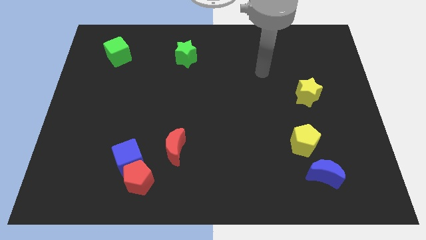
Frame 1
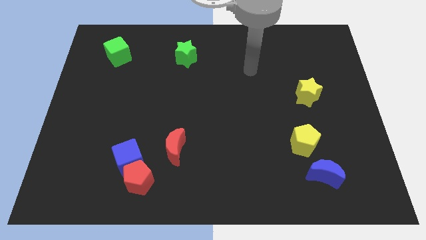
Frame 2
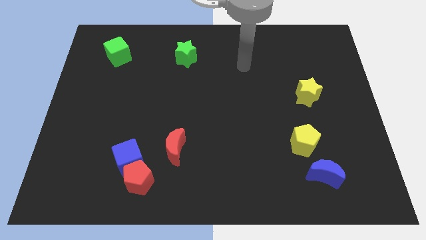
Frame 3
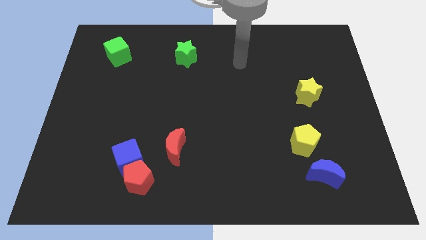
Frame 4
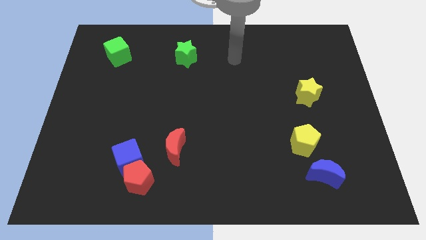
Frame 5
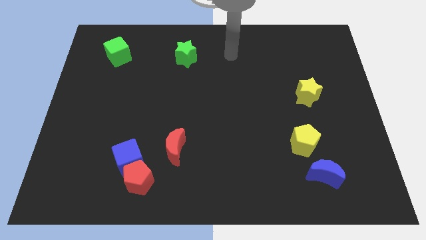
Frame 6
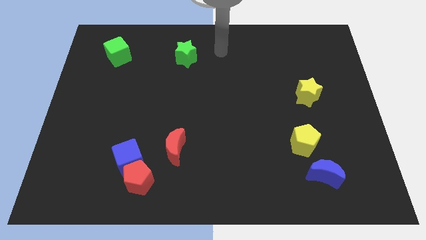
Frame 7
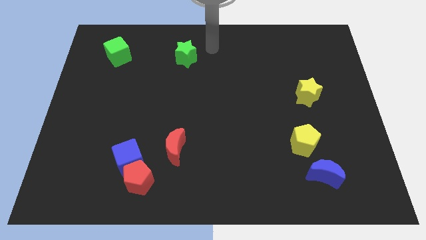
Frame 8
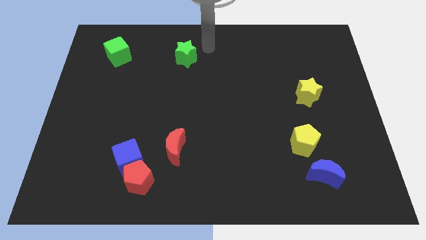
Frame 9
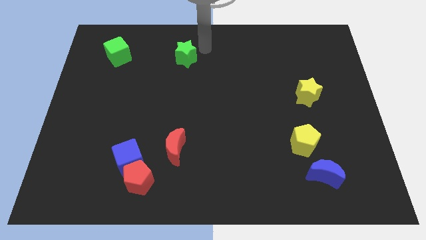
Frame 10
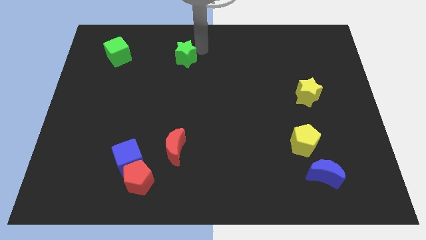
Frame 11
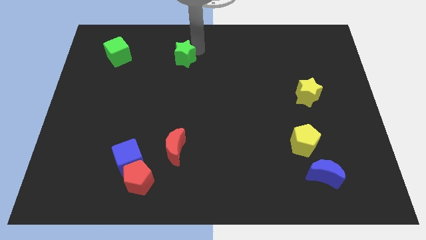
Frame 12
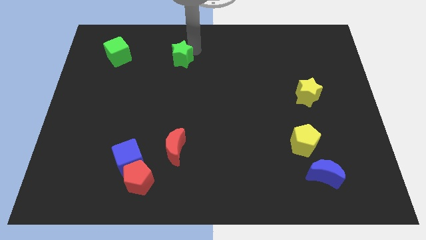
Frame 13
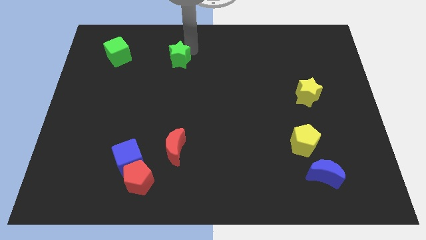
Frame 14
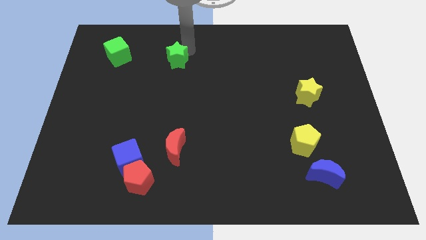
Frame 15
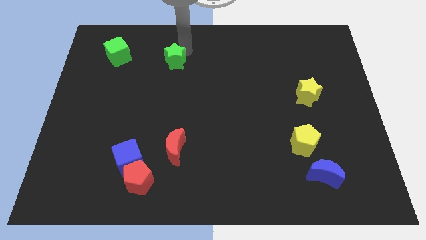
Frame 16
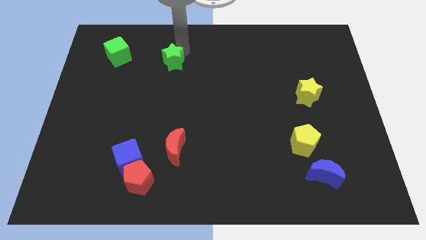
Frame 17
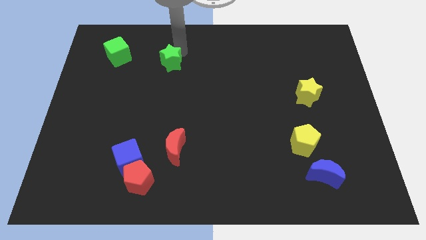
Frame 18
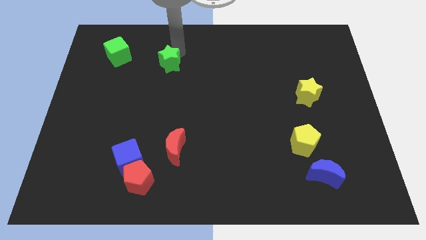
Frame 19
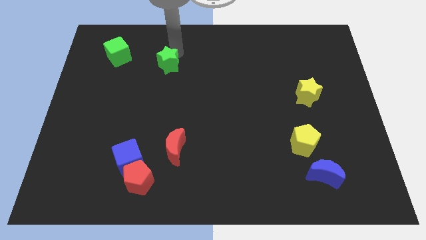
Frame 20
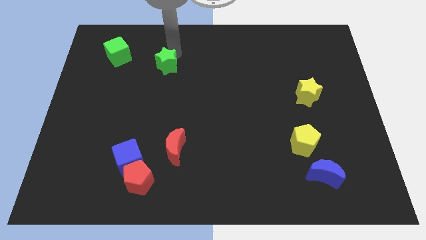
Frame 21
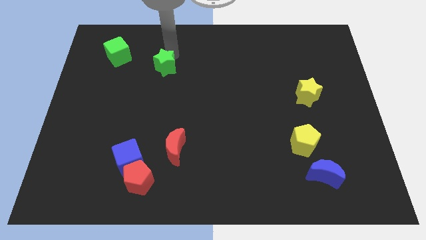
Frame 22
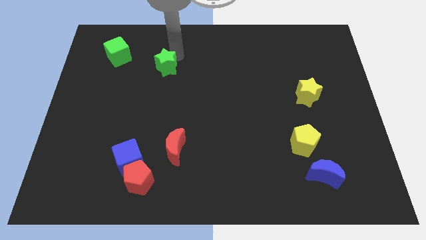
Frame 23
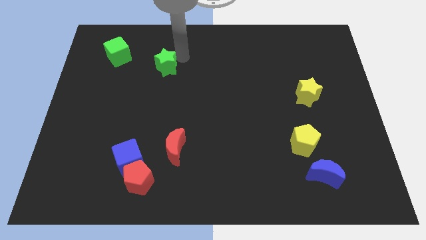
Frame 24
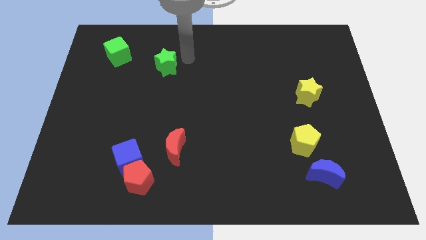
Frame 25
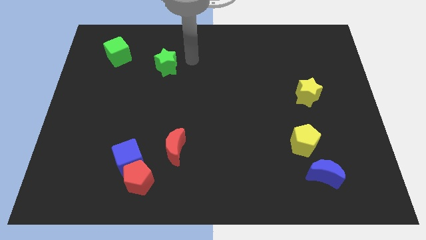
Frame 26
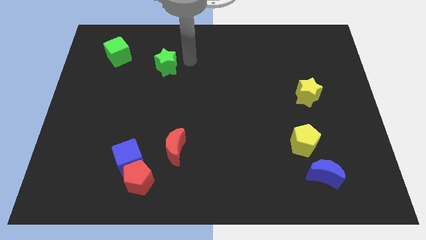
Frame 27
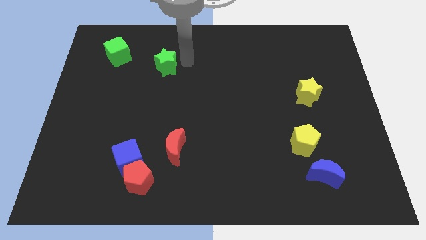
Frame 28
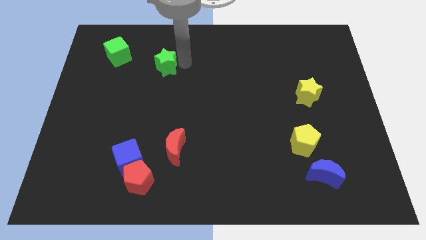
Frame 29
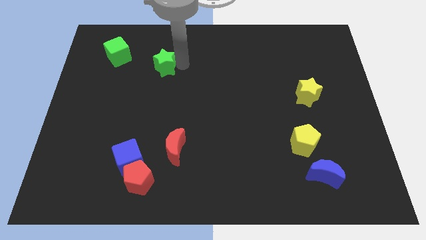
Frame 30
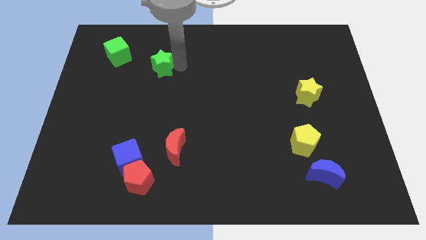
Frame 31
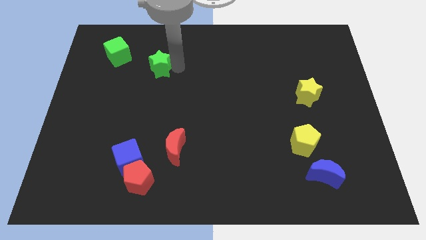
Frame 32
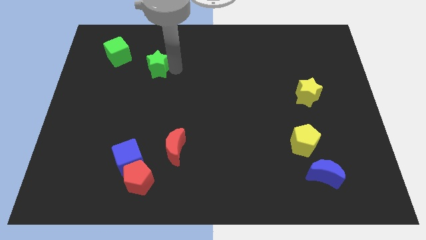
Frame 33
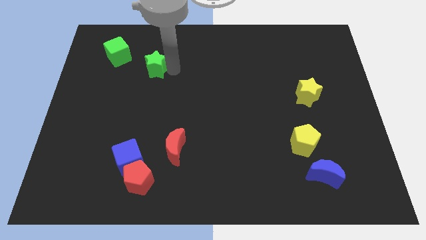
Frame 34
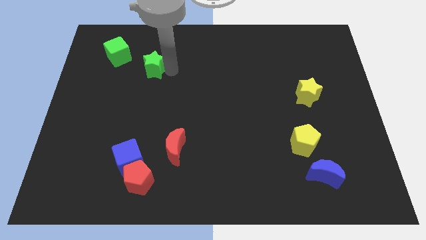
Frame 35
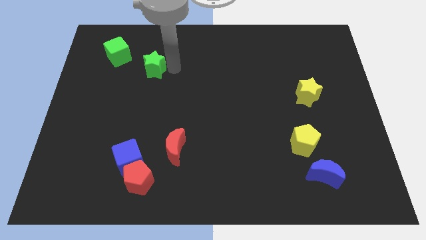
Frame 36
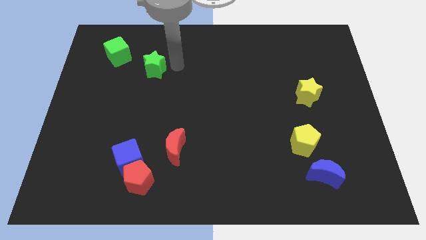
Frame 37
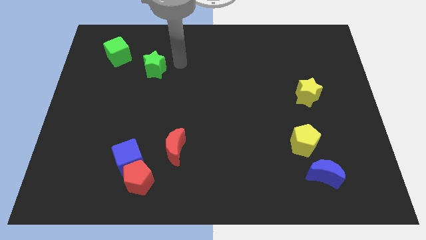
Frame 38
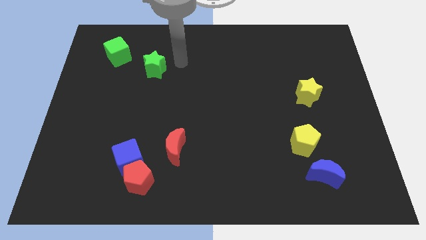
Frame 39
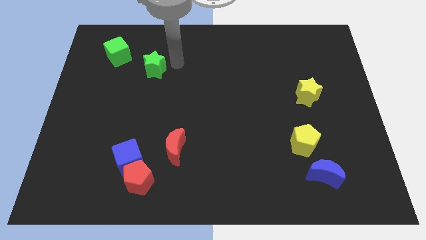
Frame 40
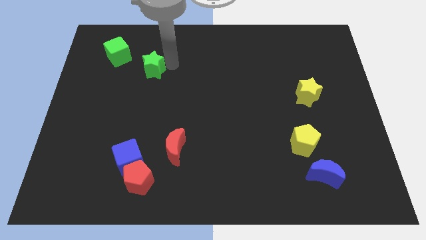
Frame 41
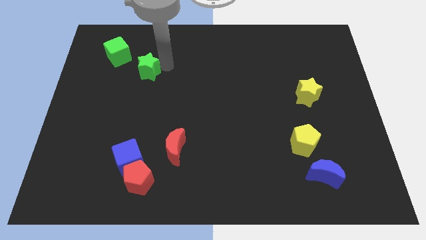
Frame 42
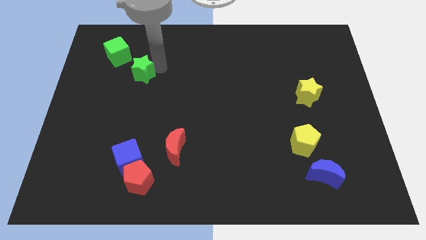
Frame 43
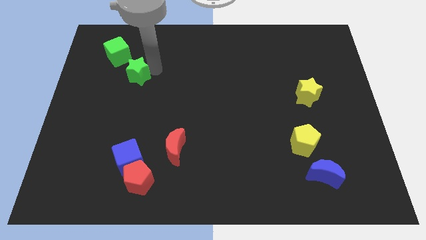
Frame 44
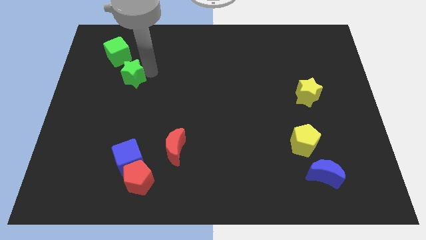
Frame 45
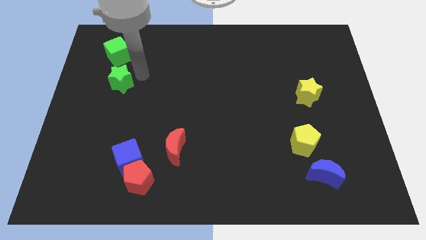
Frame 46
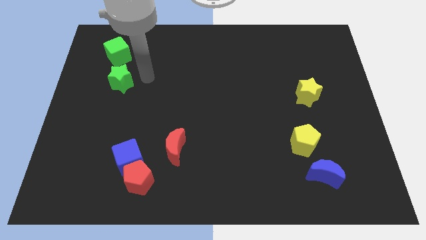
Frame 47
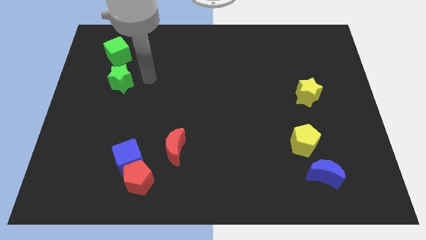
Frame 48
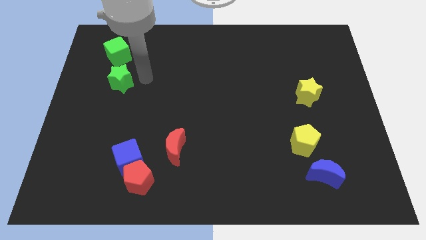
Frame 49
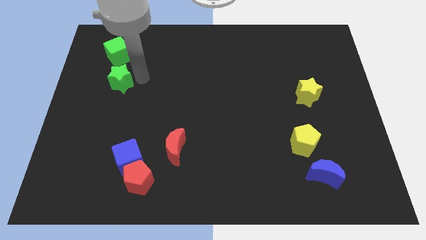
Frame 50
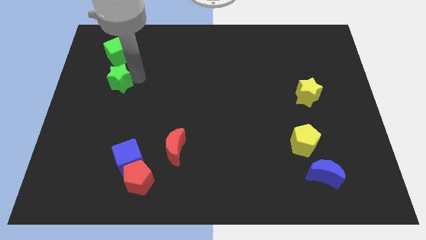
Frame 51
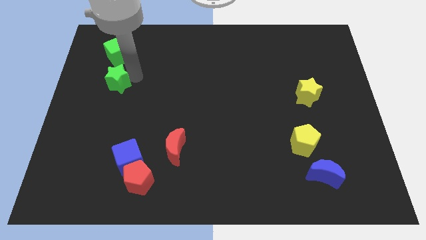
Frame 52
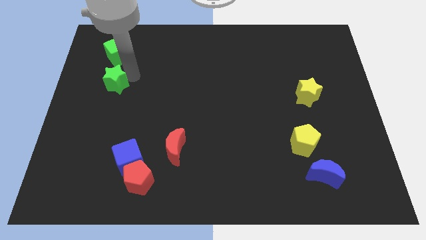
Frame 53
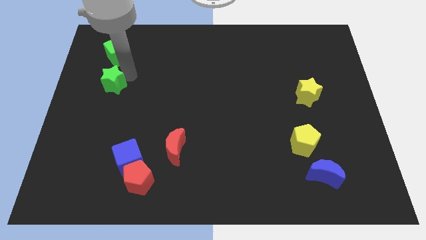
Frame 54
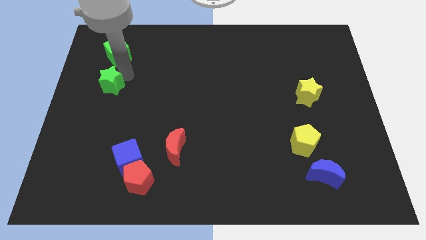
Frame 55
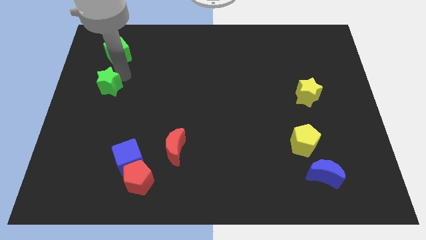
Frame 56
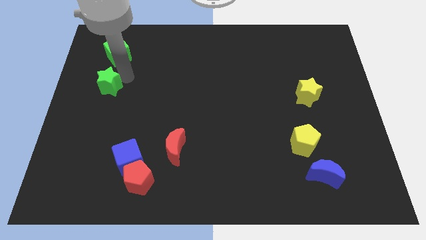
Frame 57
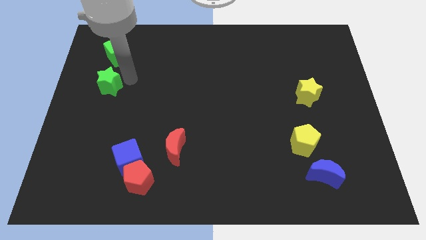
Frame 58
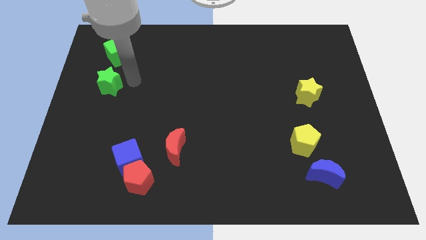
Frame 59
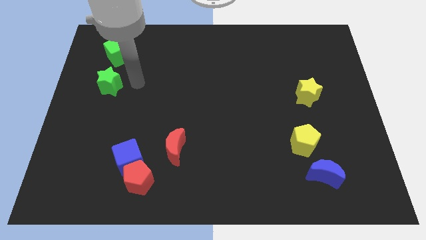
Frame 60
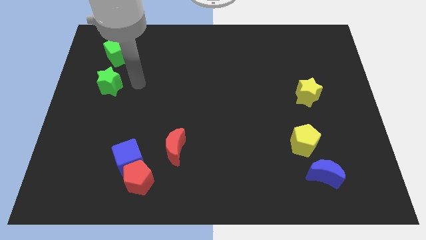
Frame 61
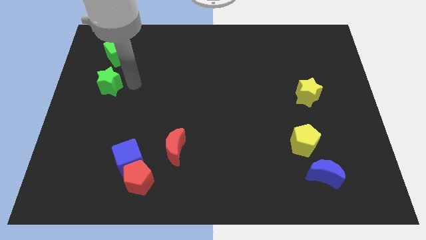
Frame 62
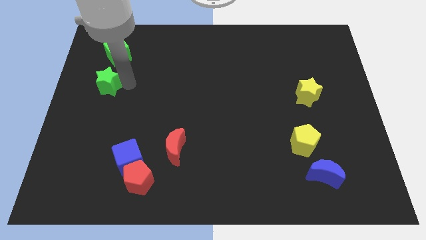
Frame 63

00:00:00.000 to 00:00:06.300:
move the green star to the center left
